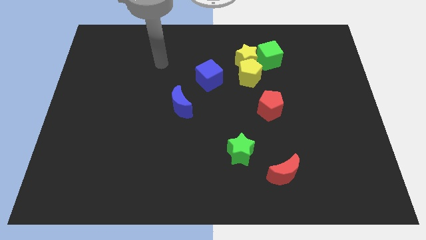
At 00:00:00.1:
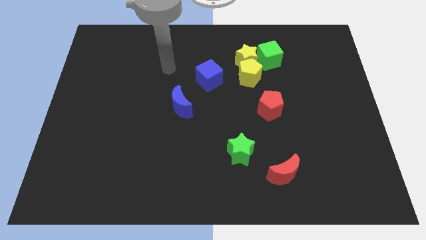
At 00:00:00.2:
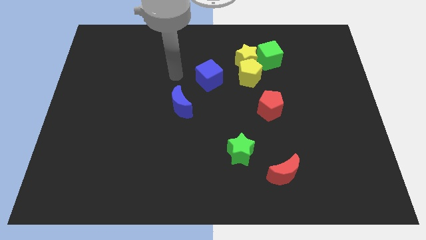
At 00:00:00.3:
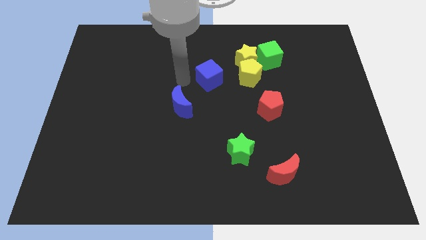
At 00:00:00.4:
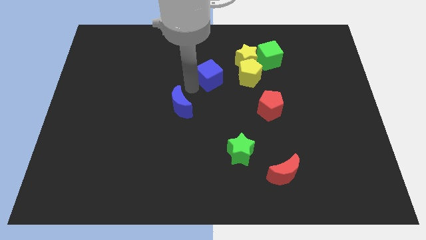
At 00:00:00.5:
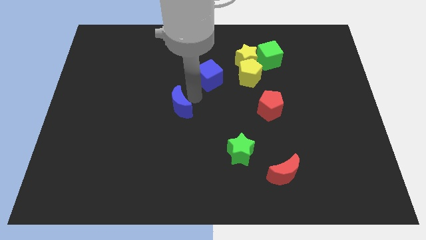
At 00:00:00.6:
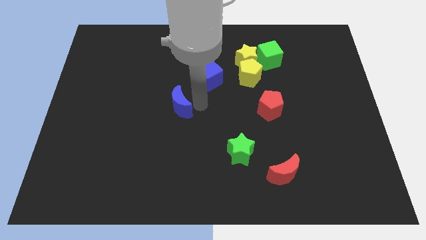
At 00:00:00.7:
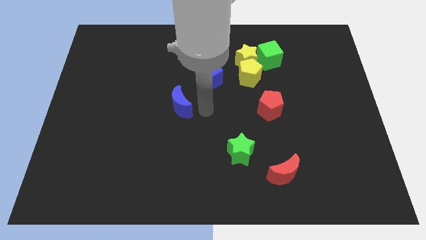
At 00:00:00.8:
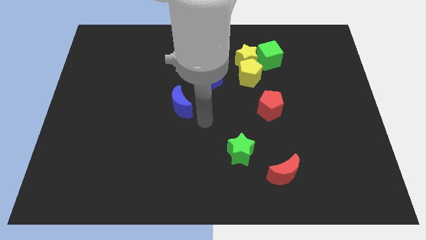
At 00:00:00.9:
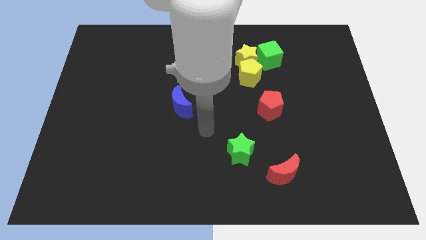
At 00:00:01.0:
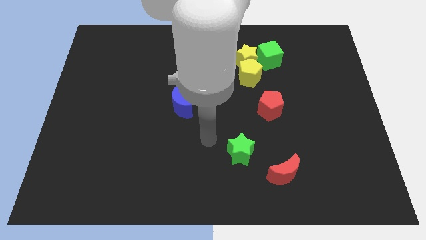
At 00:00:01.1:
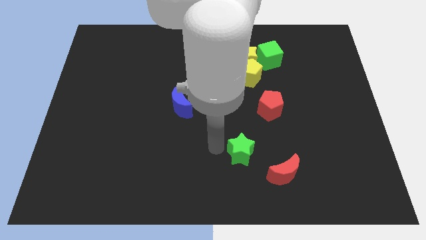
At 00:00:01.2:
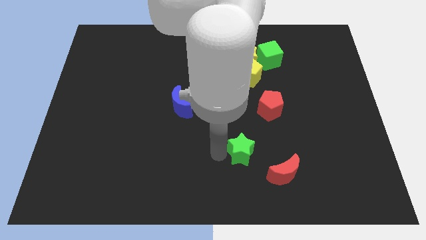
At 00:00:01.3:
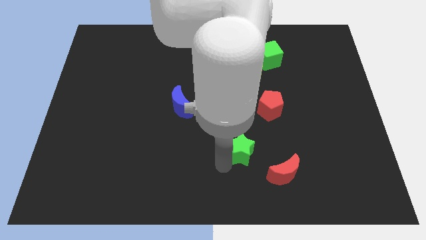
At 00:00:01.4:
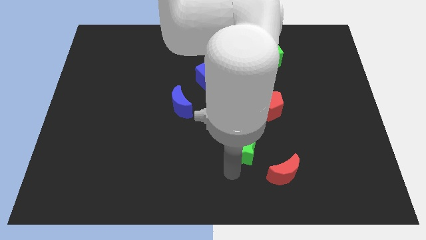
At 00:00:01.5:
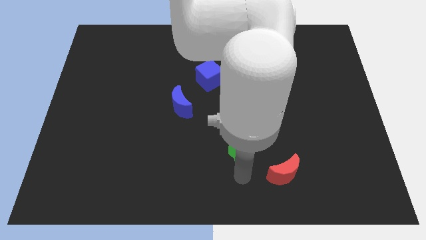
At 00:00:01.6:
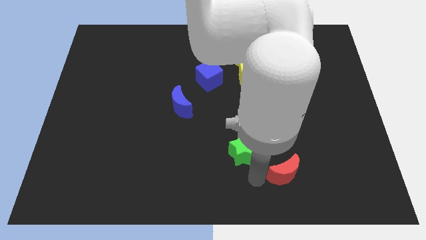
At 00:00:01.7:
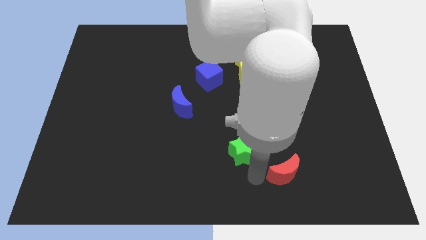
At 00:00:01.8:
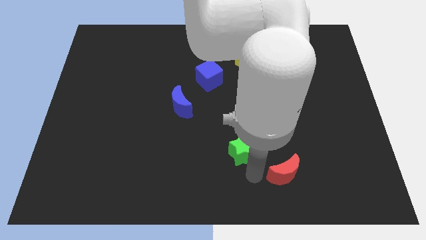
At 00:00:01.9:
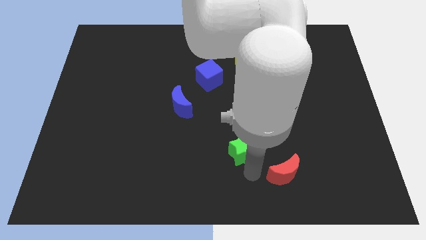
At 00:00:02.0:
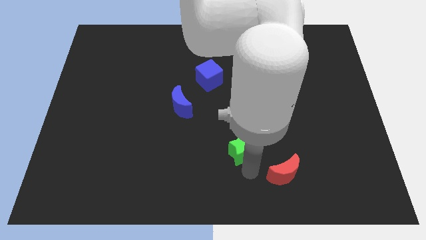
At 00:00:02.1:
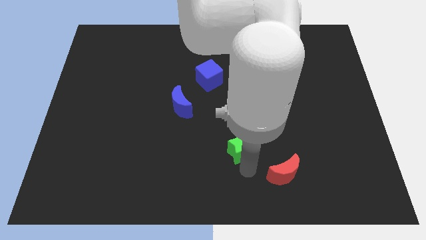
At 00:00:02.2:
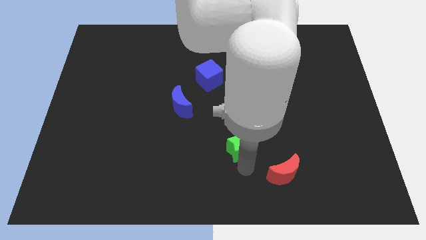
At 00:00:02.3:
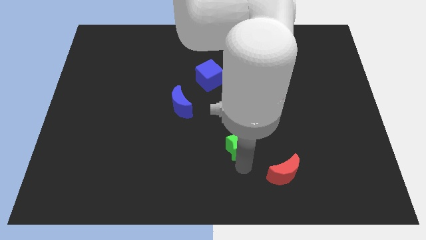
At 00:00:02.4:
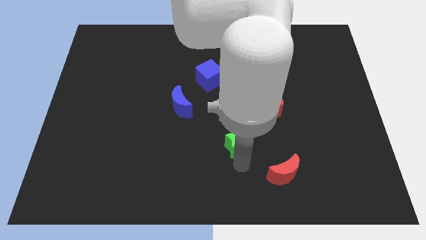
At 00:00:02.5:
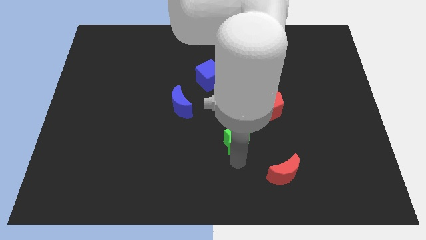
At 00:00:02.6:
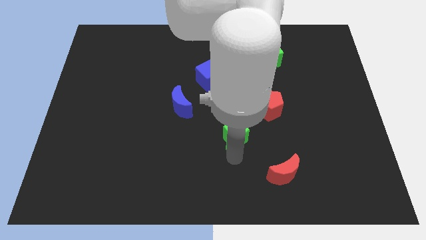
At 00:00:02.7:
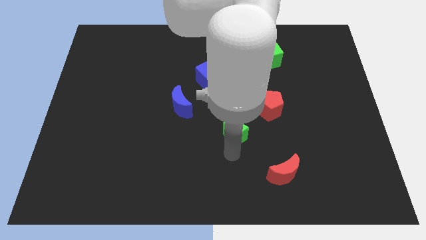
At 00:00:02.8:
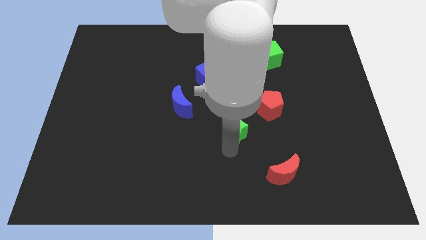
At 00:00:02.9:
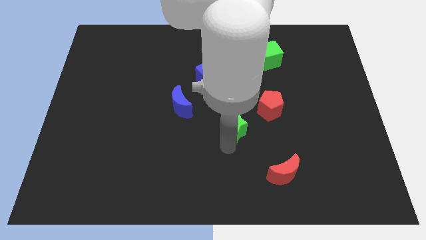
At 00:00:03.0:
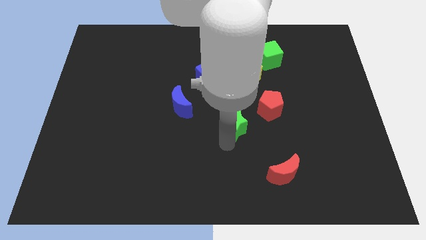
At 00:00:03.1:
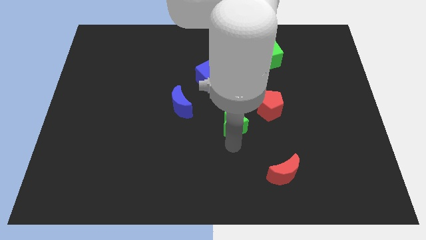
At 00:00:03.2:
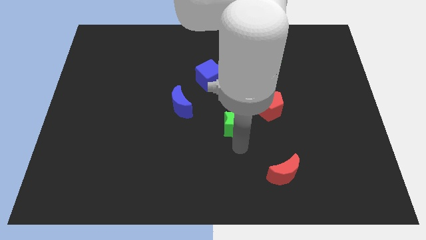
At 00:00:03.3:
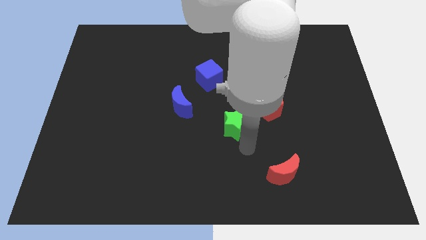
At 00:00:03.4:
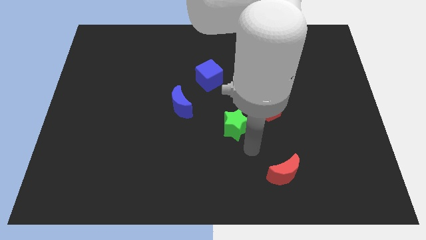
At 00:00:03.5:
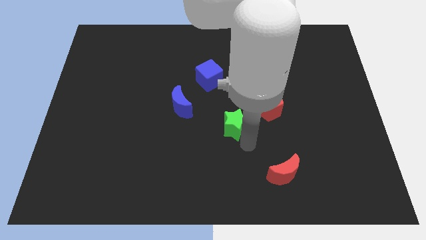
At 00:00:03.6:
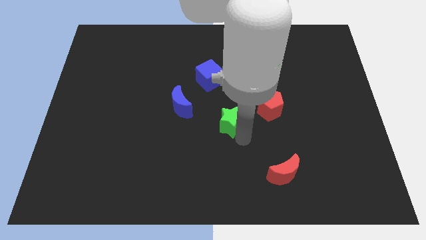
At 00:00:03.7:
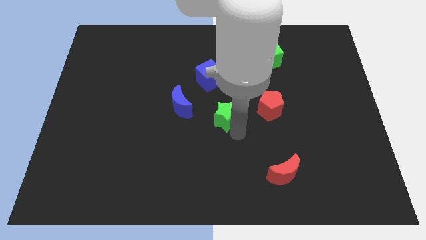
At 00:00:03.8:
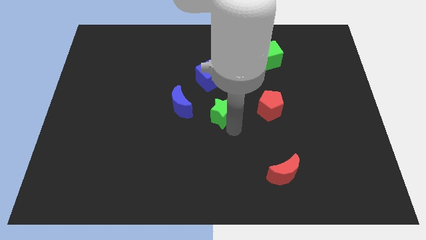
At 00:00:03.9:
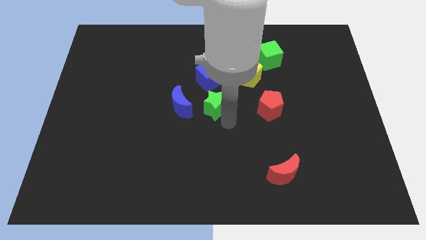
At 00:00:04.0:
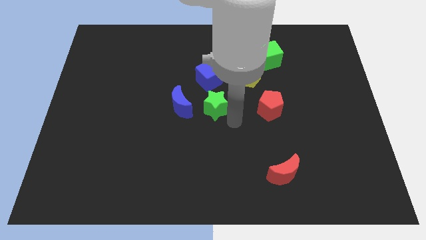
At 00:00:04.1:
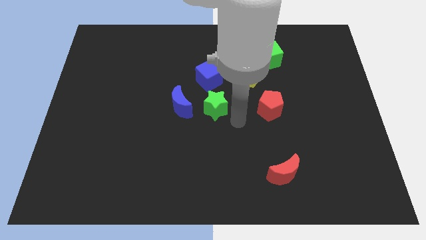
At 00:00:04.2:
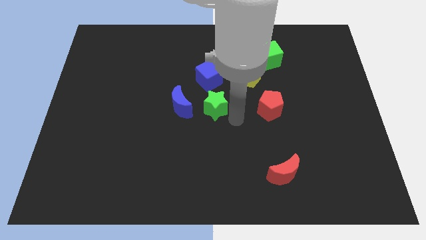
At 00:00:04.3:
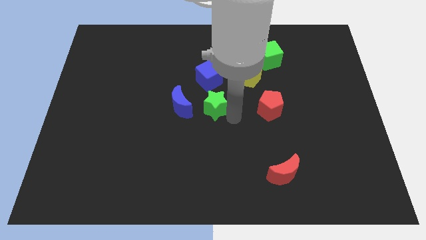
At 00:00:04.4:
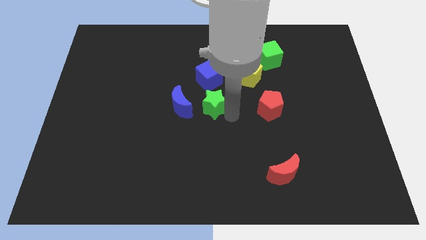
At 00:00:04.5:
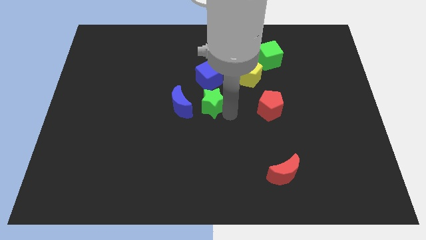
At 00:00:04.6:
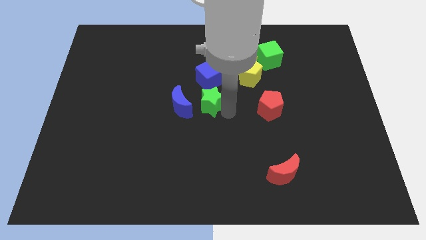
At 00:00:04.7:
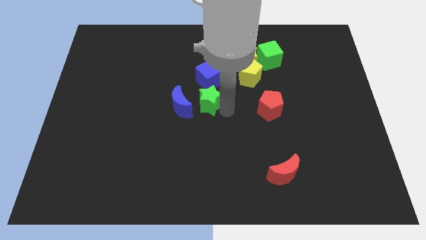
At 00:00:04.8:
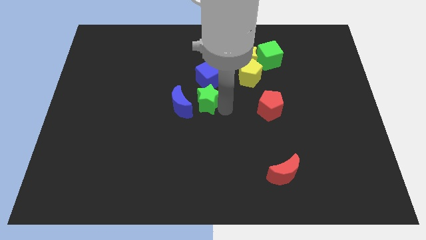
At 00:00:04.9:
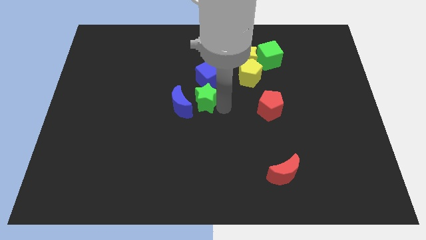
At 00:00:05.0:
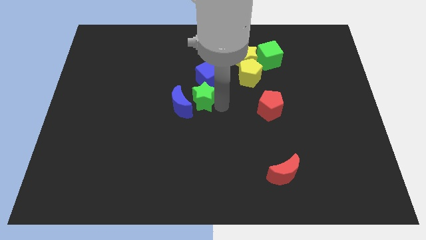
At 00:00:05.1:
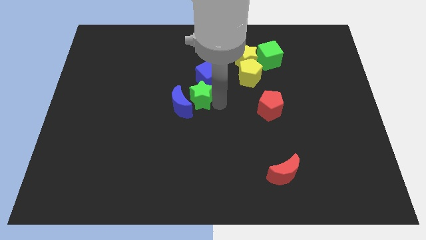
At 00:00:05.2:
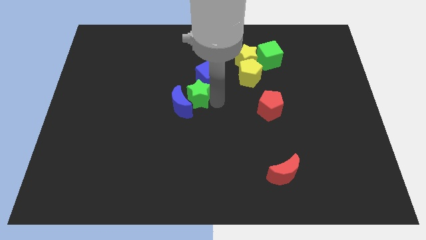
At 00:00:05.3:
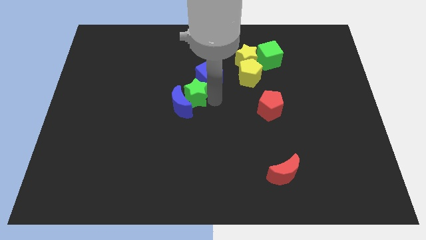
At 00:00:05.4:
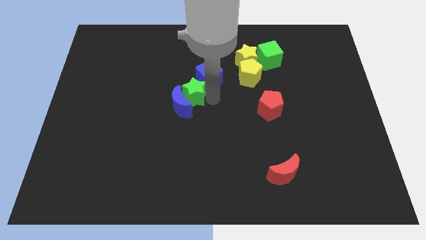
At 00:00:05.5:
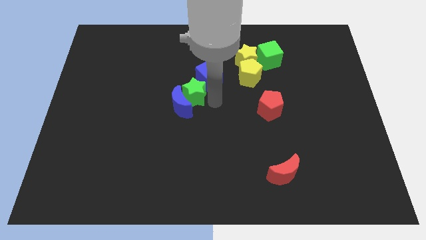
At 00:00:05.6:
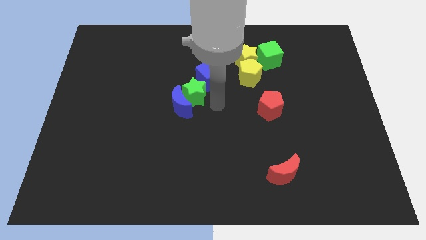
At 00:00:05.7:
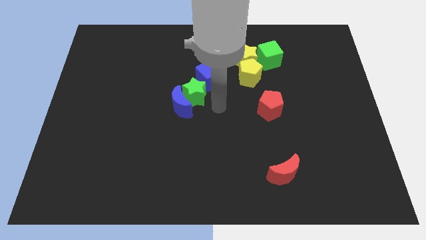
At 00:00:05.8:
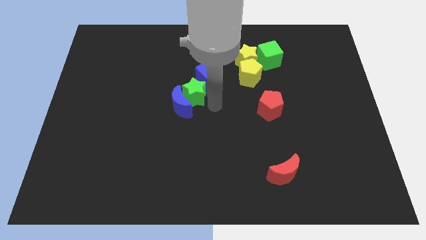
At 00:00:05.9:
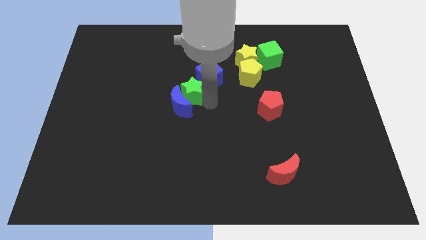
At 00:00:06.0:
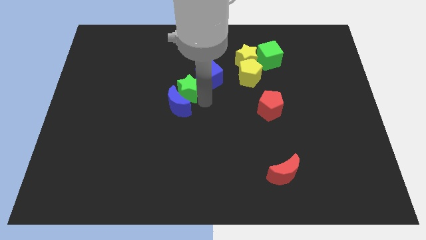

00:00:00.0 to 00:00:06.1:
push the green star up and to the left diagonally

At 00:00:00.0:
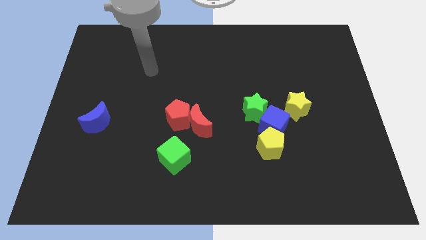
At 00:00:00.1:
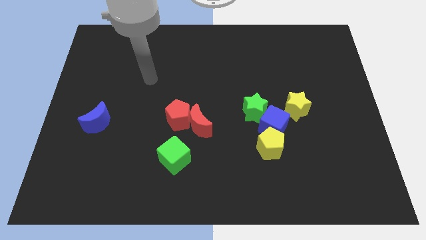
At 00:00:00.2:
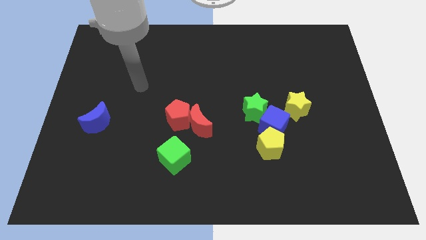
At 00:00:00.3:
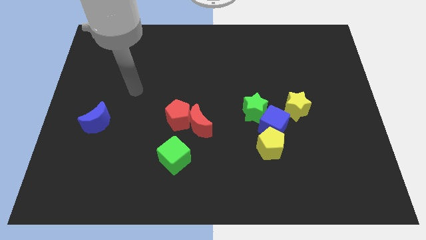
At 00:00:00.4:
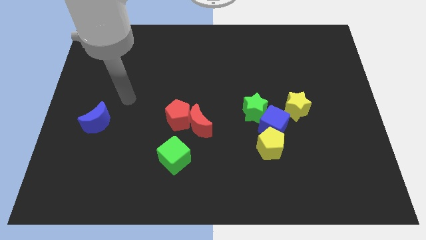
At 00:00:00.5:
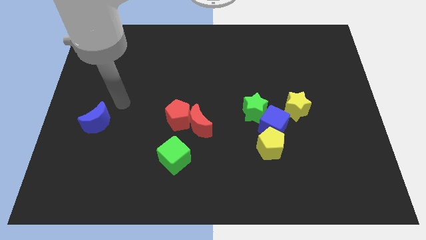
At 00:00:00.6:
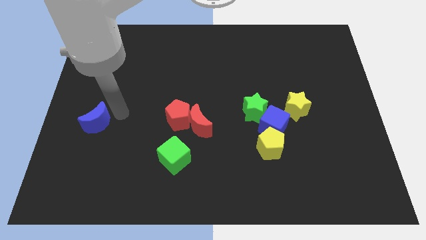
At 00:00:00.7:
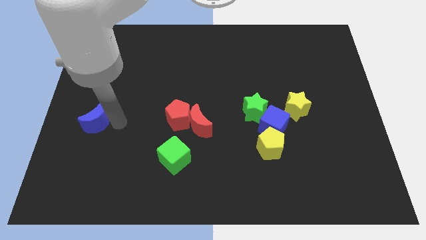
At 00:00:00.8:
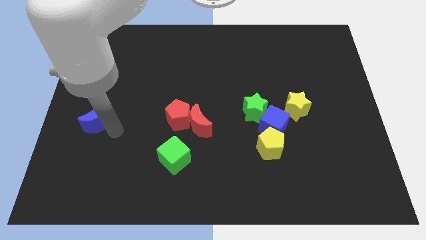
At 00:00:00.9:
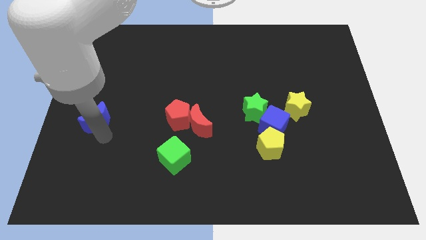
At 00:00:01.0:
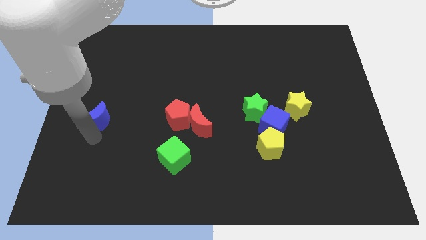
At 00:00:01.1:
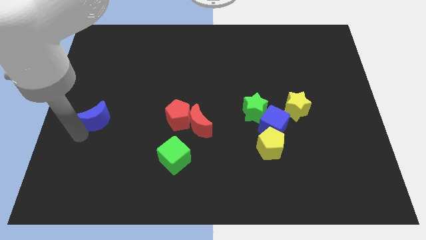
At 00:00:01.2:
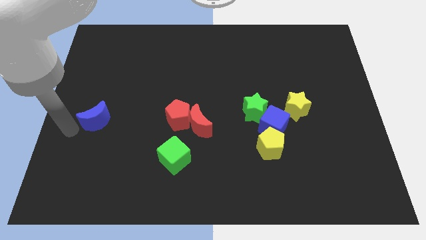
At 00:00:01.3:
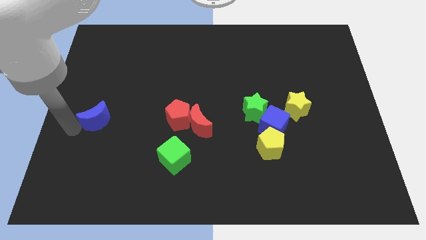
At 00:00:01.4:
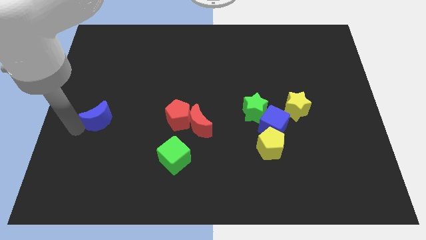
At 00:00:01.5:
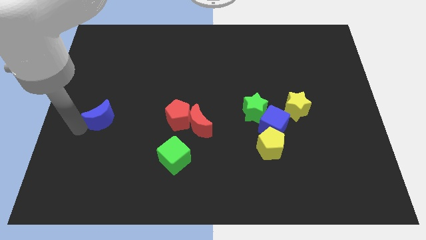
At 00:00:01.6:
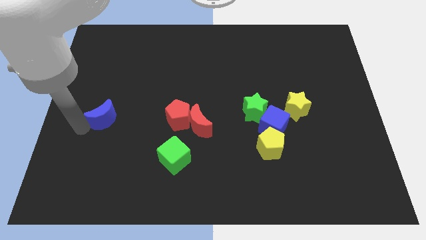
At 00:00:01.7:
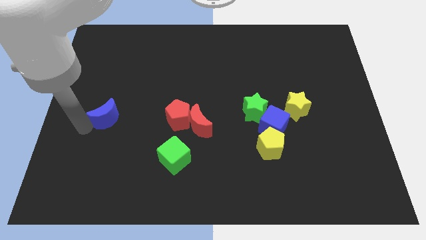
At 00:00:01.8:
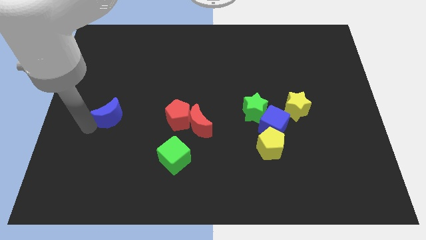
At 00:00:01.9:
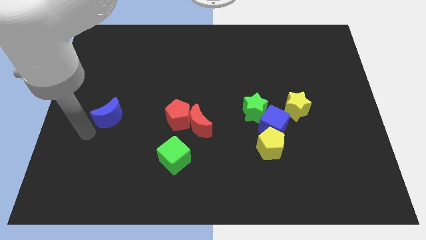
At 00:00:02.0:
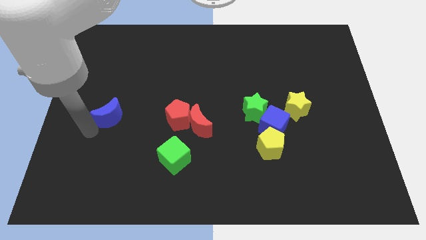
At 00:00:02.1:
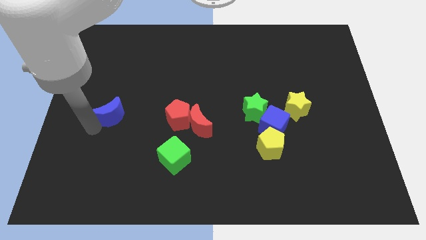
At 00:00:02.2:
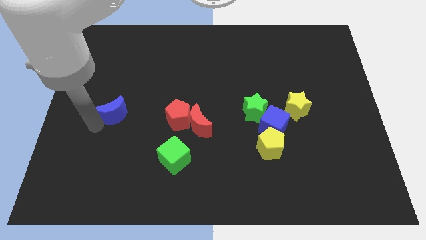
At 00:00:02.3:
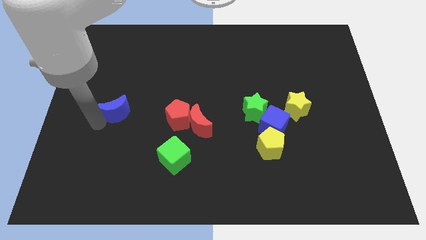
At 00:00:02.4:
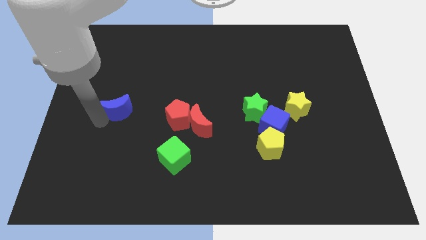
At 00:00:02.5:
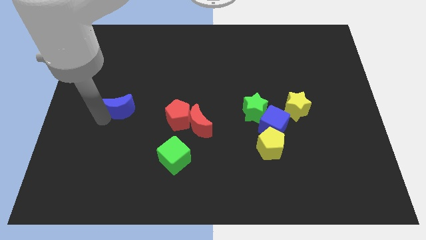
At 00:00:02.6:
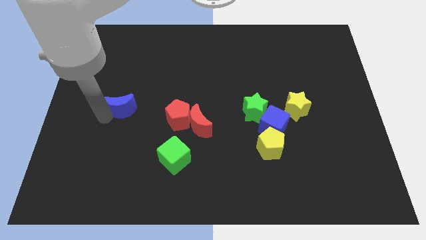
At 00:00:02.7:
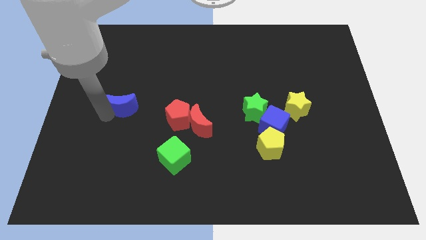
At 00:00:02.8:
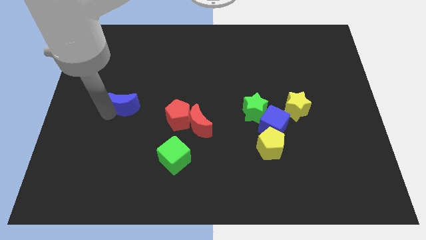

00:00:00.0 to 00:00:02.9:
slightly push the blue moon diagonally up and right
